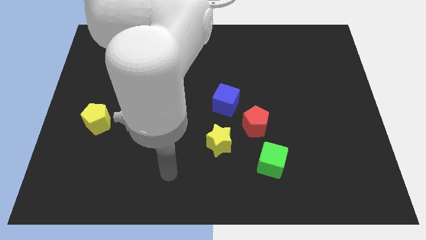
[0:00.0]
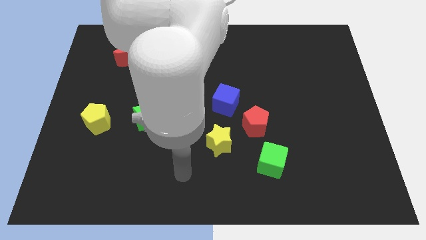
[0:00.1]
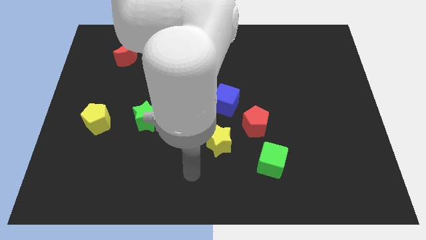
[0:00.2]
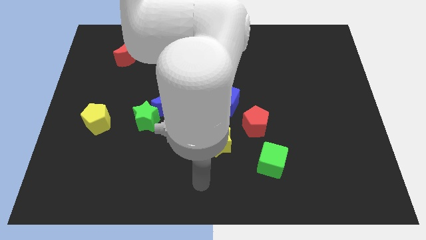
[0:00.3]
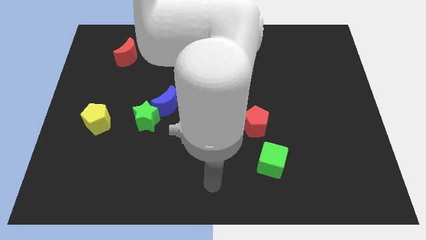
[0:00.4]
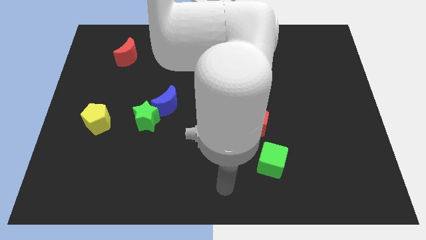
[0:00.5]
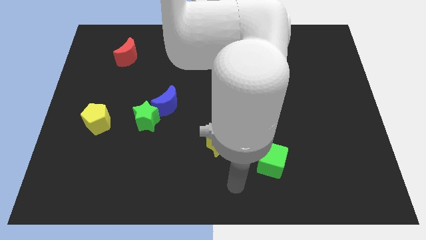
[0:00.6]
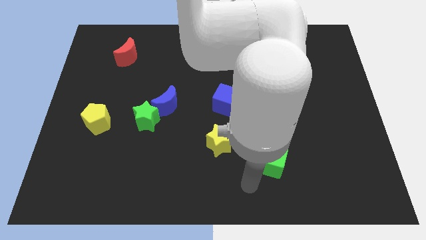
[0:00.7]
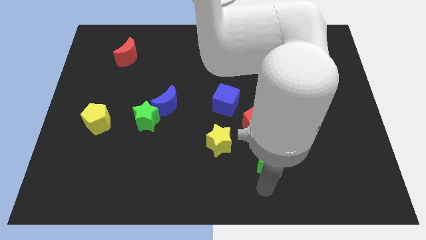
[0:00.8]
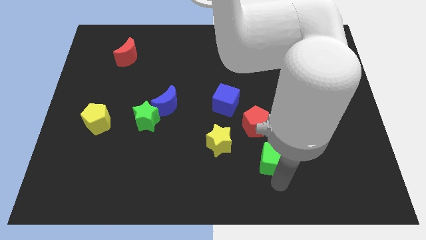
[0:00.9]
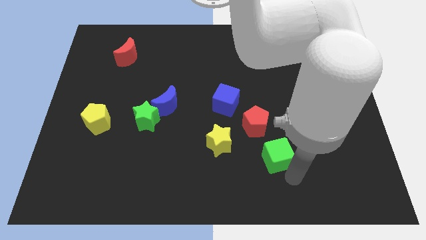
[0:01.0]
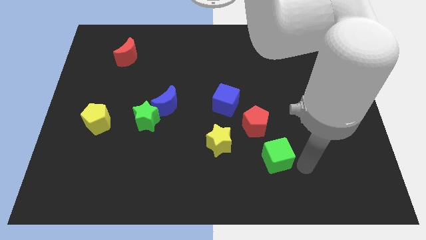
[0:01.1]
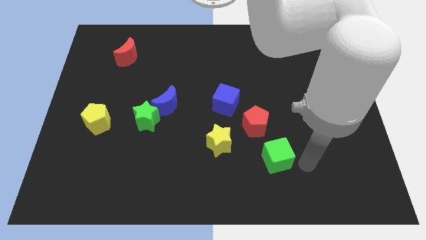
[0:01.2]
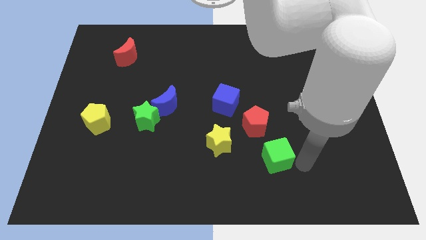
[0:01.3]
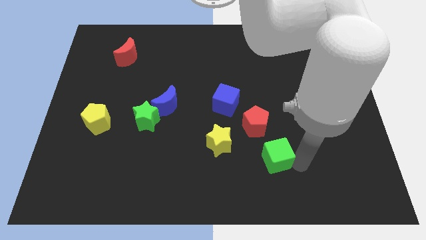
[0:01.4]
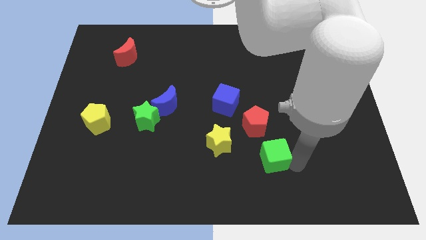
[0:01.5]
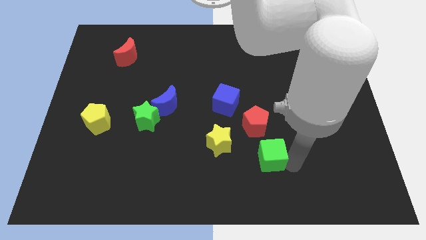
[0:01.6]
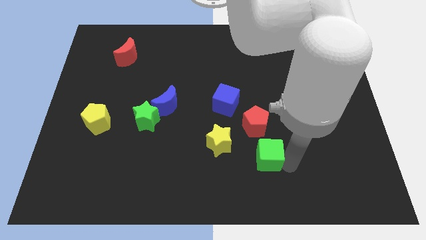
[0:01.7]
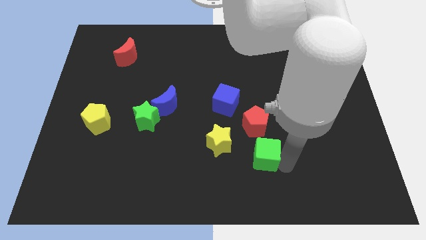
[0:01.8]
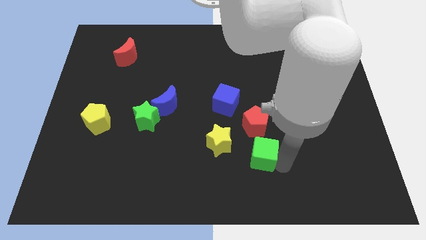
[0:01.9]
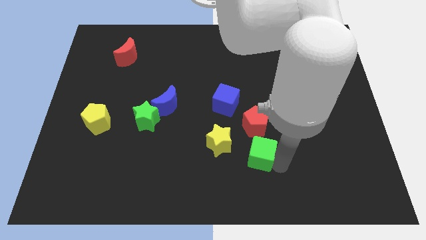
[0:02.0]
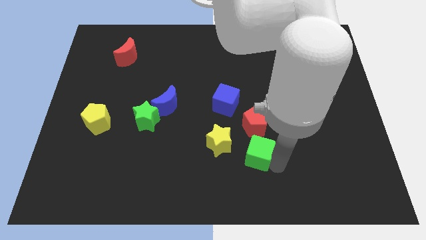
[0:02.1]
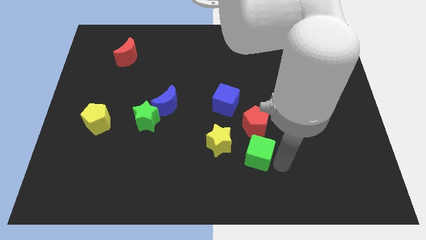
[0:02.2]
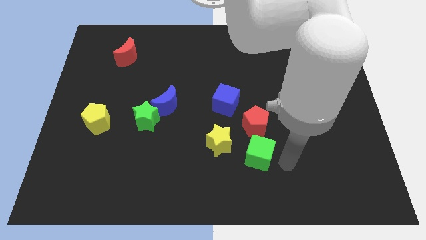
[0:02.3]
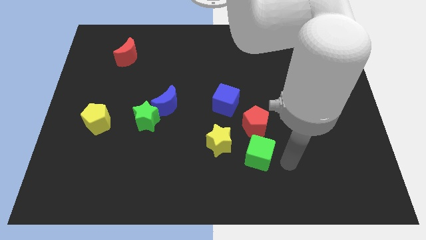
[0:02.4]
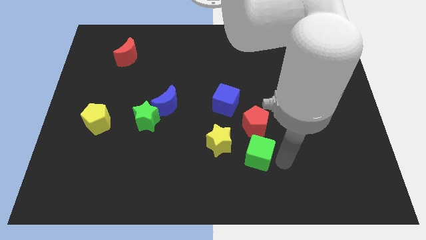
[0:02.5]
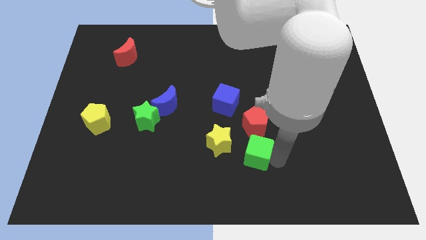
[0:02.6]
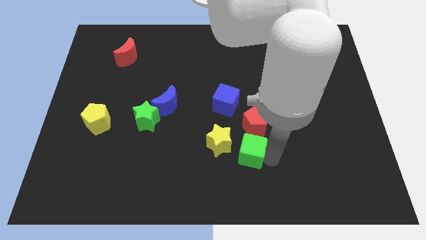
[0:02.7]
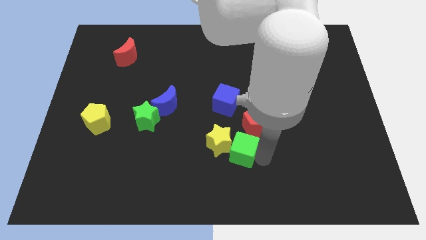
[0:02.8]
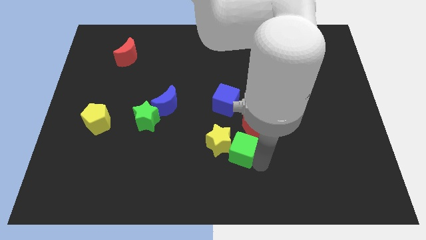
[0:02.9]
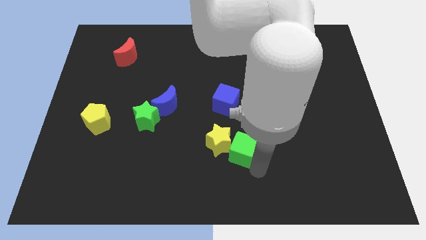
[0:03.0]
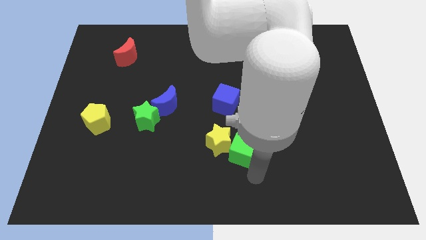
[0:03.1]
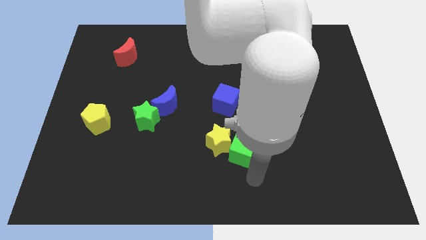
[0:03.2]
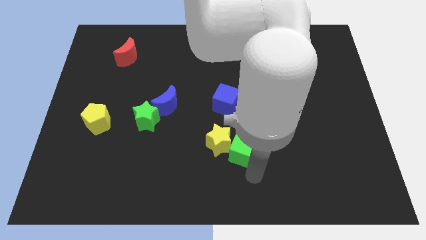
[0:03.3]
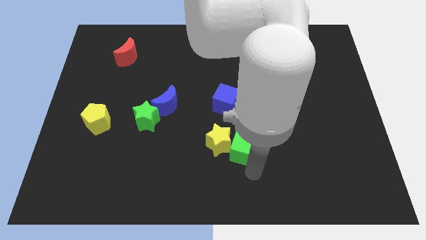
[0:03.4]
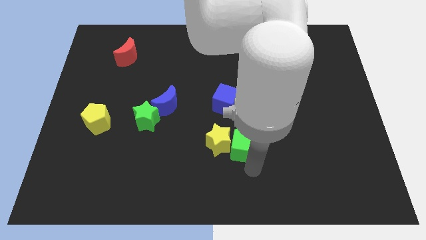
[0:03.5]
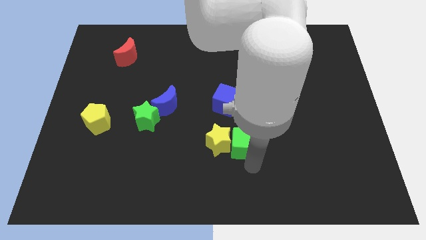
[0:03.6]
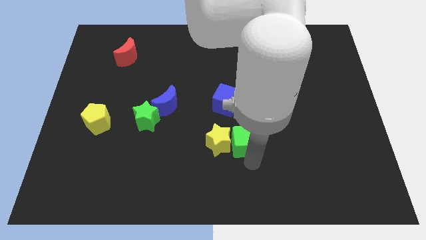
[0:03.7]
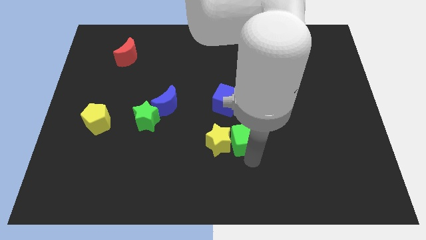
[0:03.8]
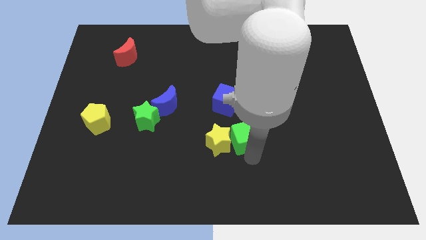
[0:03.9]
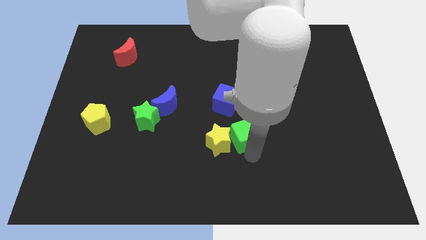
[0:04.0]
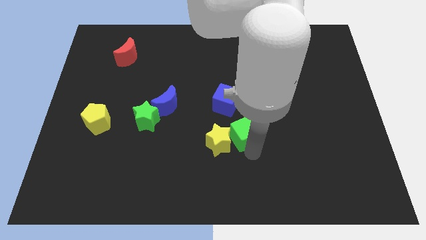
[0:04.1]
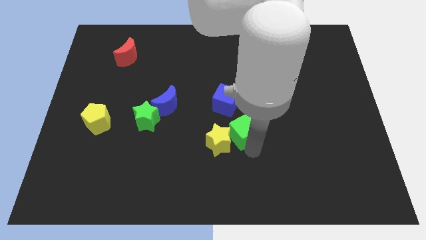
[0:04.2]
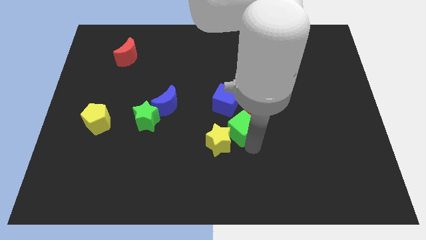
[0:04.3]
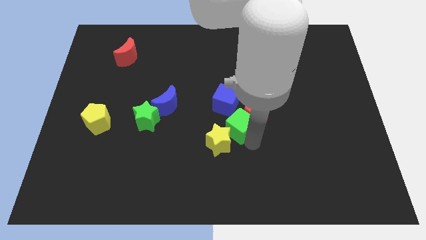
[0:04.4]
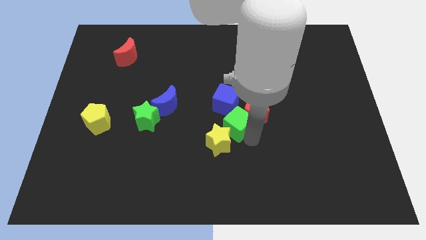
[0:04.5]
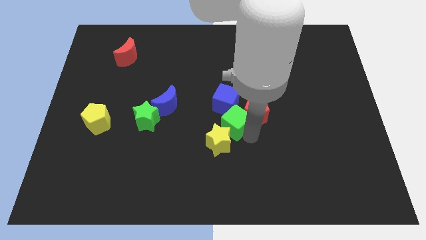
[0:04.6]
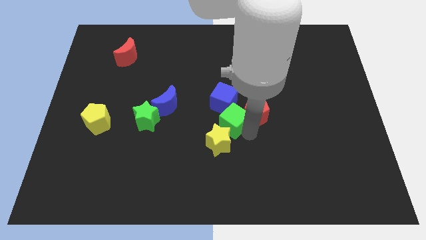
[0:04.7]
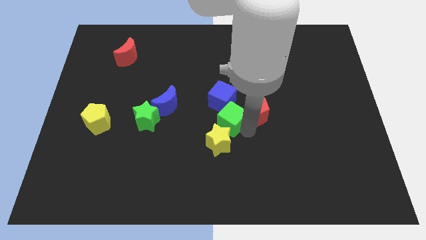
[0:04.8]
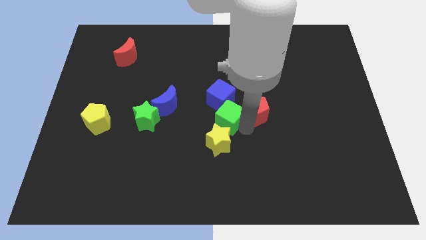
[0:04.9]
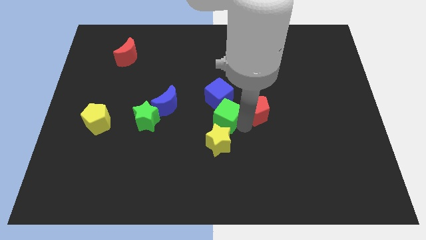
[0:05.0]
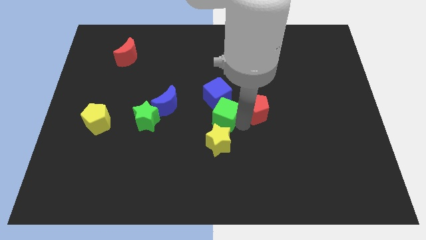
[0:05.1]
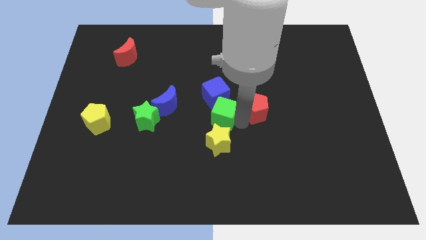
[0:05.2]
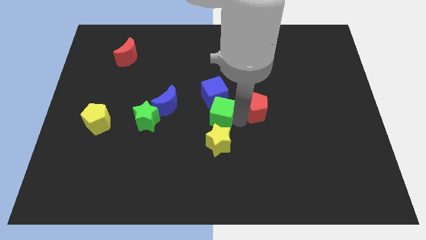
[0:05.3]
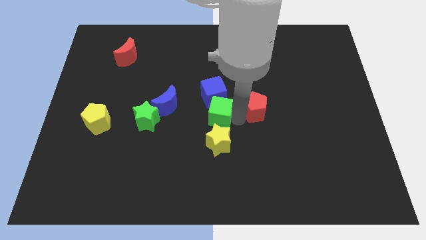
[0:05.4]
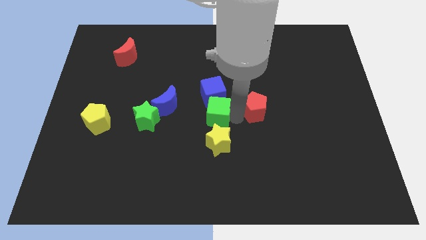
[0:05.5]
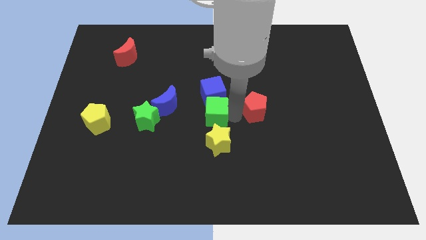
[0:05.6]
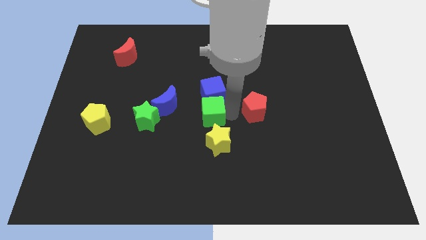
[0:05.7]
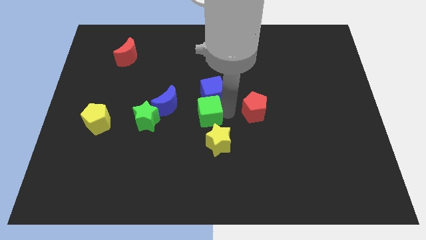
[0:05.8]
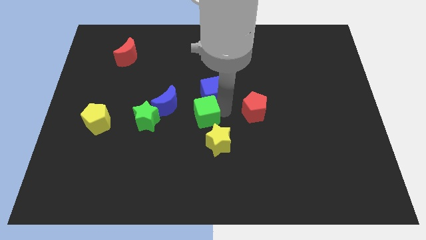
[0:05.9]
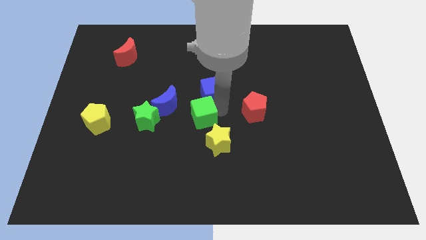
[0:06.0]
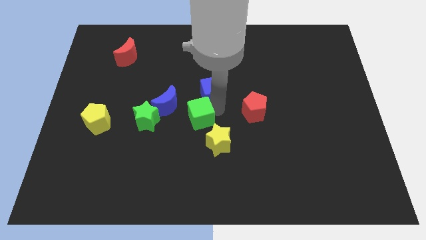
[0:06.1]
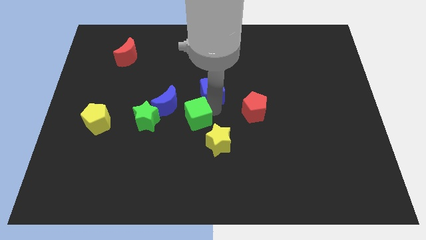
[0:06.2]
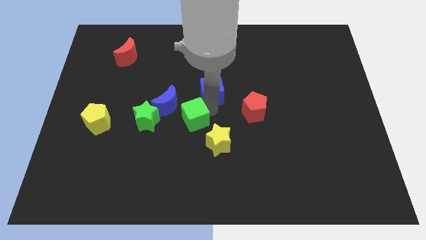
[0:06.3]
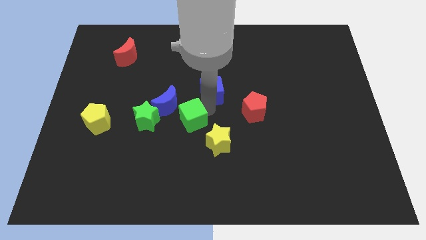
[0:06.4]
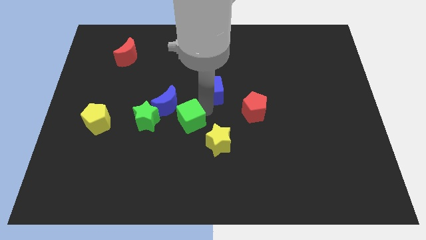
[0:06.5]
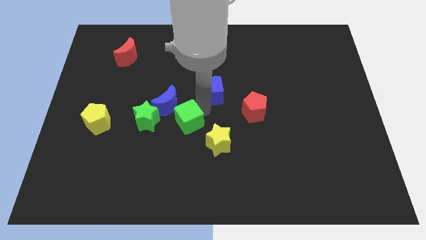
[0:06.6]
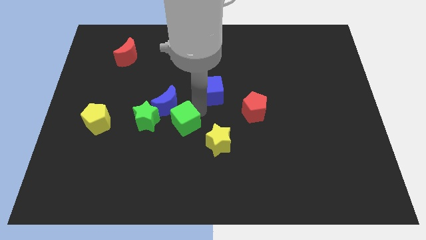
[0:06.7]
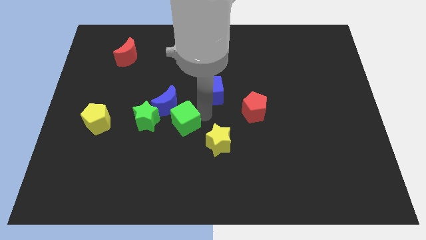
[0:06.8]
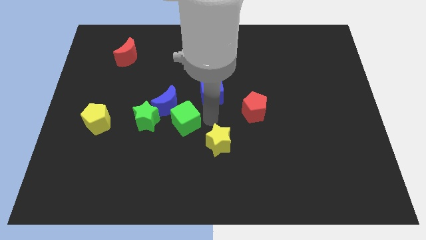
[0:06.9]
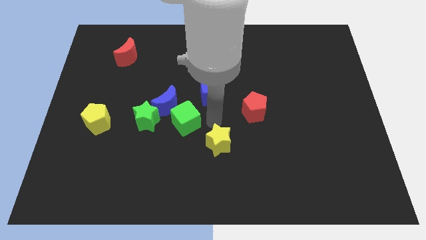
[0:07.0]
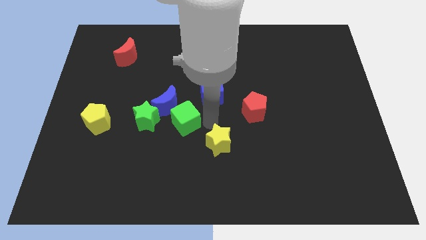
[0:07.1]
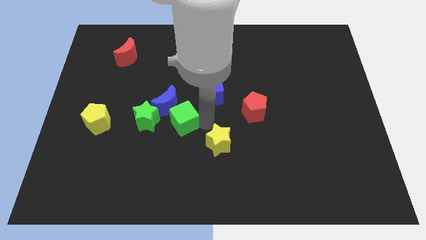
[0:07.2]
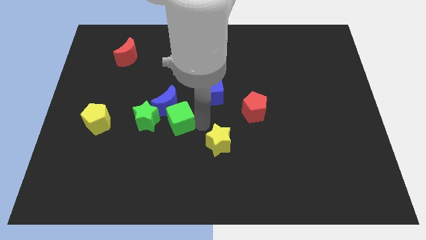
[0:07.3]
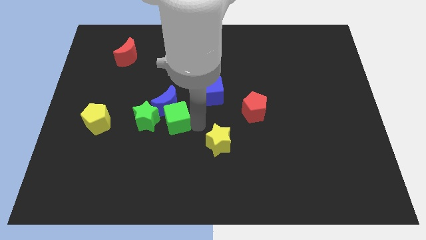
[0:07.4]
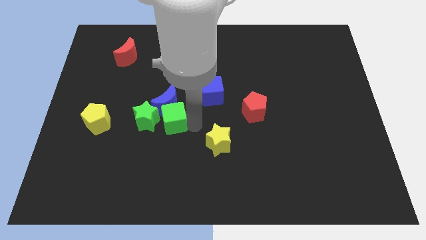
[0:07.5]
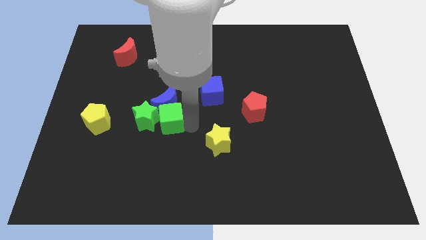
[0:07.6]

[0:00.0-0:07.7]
slide the green cube towards the green star
